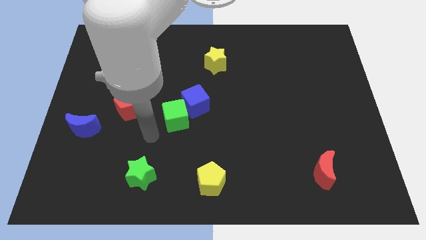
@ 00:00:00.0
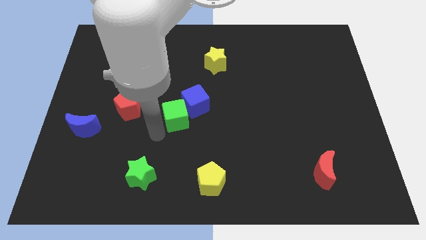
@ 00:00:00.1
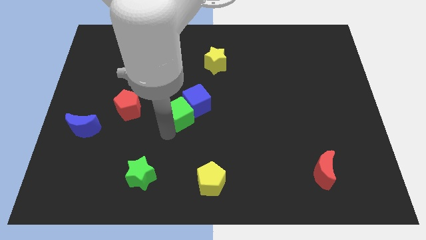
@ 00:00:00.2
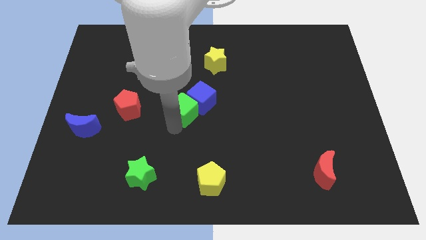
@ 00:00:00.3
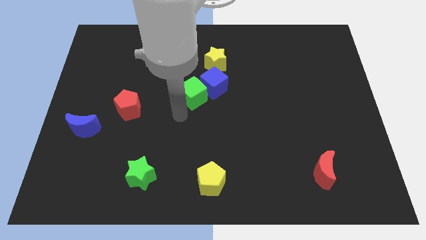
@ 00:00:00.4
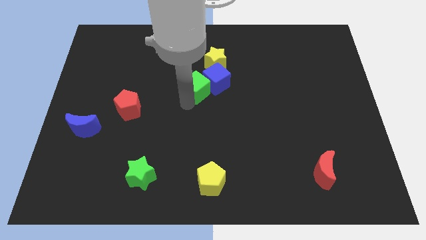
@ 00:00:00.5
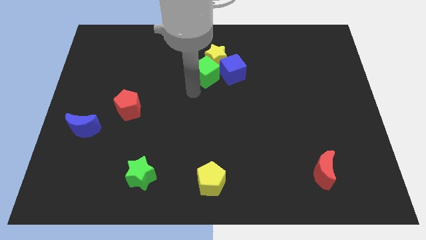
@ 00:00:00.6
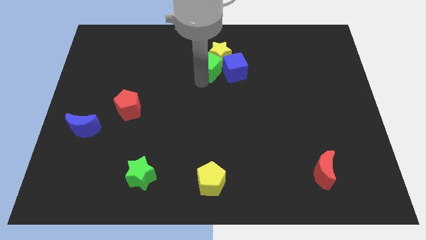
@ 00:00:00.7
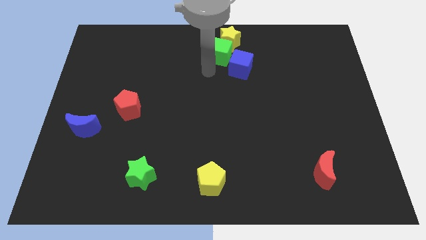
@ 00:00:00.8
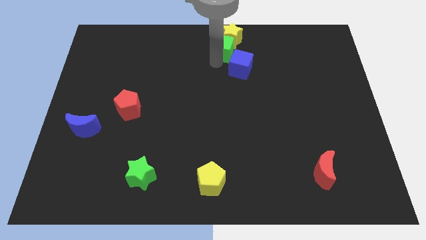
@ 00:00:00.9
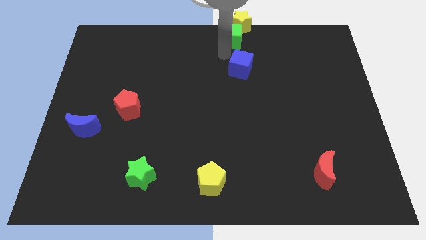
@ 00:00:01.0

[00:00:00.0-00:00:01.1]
separate the blue cube from the green cube

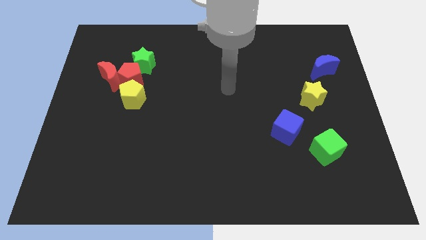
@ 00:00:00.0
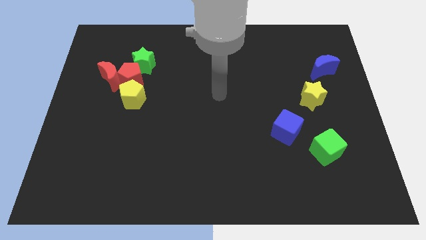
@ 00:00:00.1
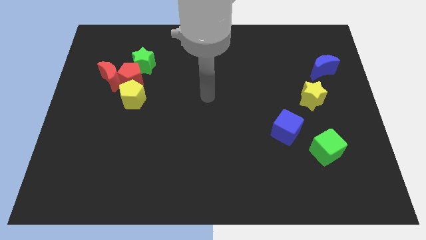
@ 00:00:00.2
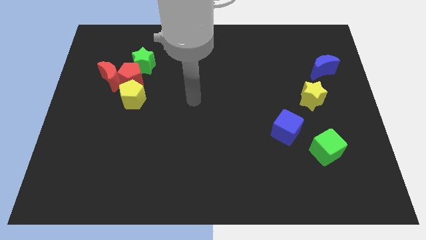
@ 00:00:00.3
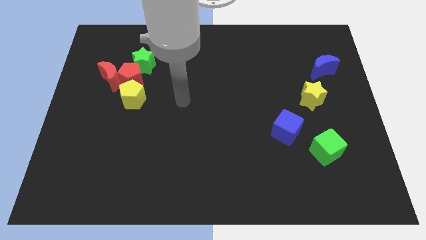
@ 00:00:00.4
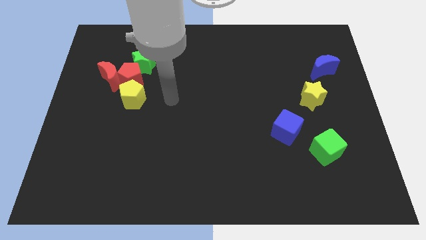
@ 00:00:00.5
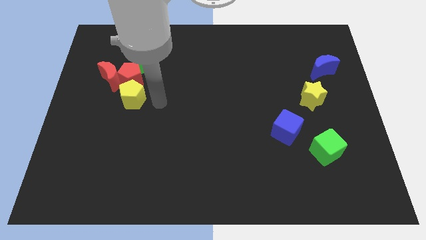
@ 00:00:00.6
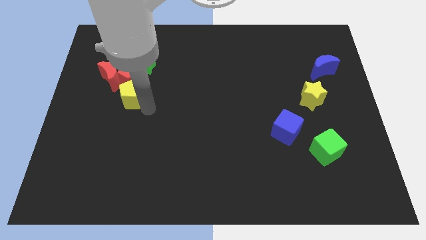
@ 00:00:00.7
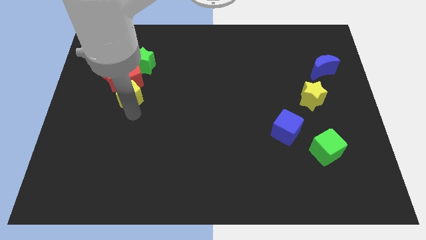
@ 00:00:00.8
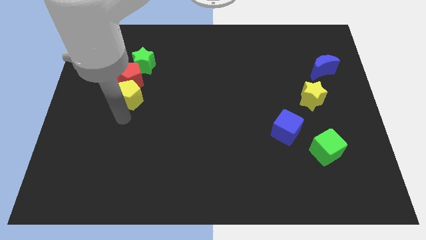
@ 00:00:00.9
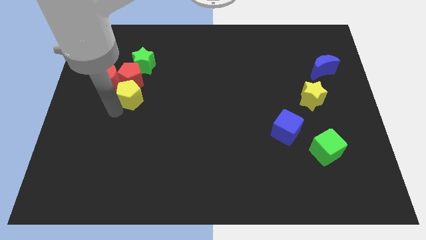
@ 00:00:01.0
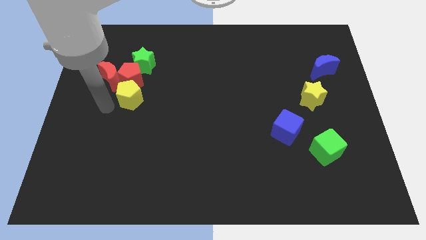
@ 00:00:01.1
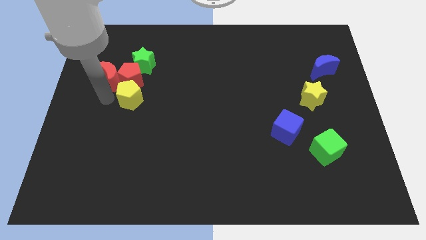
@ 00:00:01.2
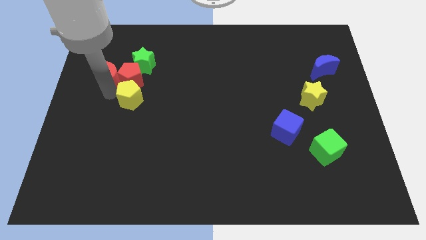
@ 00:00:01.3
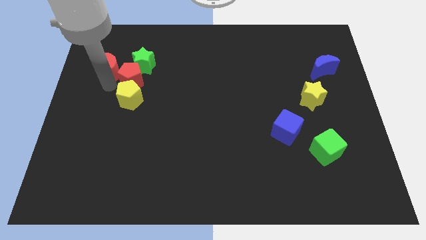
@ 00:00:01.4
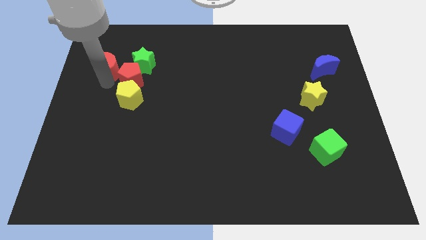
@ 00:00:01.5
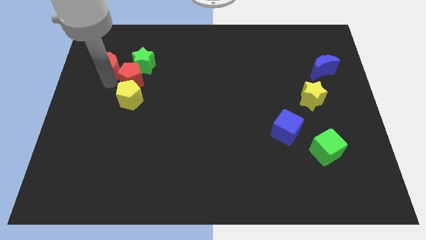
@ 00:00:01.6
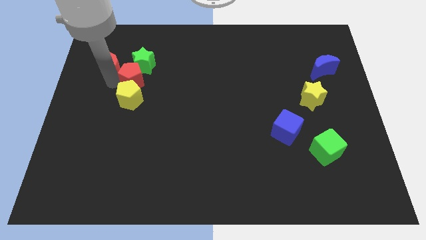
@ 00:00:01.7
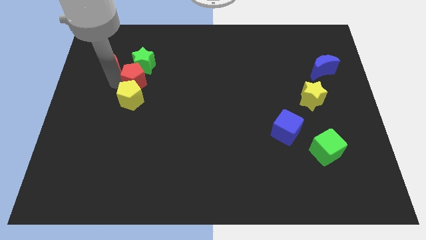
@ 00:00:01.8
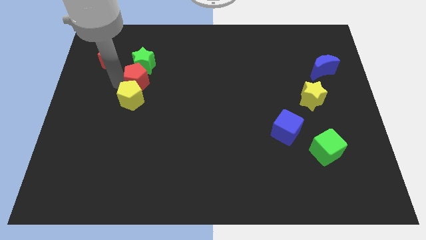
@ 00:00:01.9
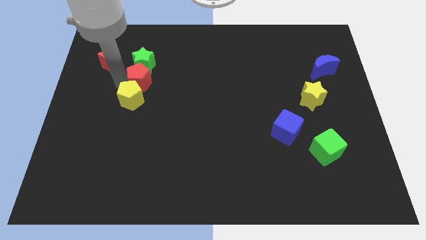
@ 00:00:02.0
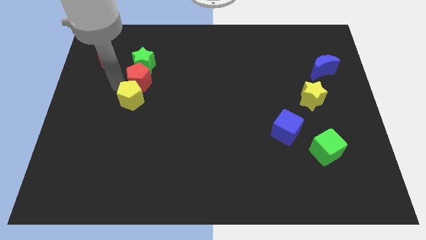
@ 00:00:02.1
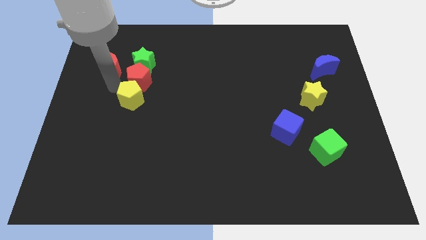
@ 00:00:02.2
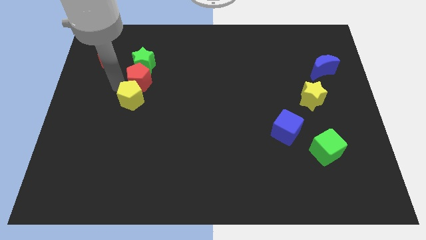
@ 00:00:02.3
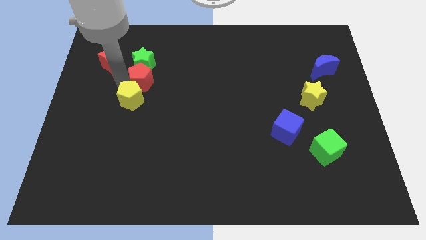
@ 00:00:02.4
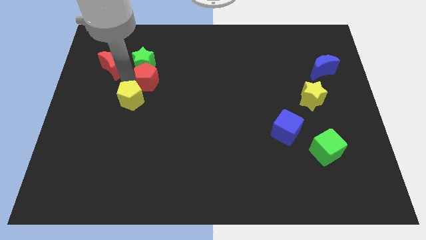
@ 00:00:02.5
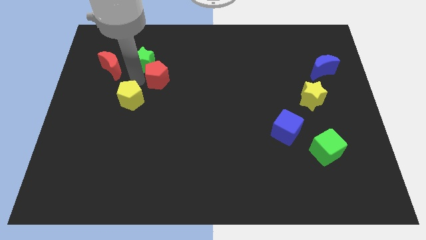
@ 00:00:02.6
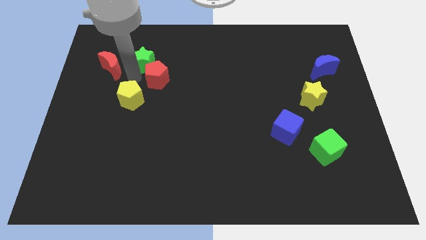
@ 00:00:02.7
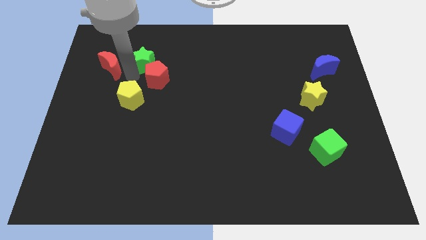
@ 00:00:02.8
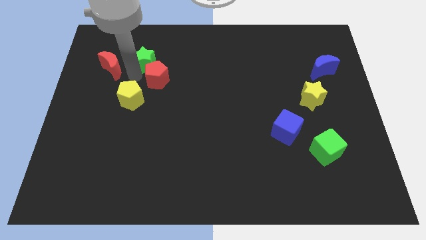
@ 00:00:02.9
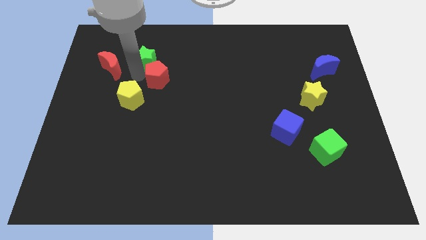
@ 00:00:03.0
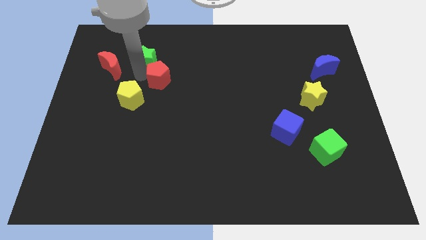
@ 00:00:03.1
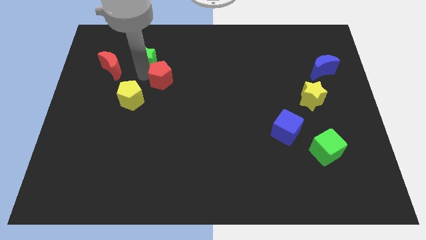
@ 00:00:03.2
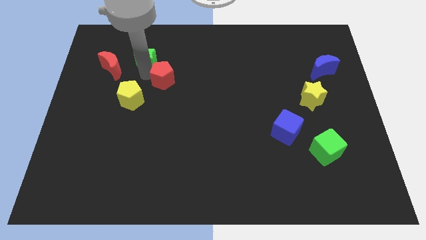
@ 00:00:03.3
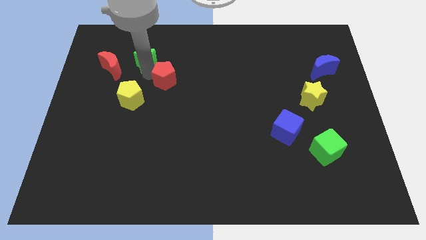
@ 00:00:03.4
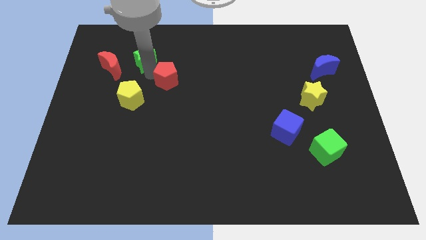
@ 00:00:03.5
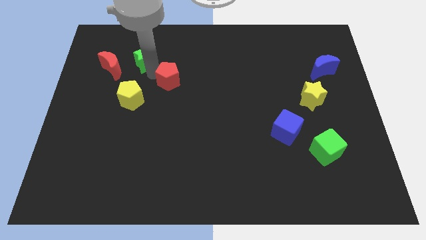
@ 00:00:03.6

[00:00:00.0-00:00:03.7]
separate the red pentagon from the red moon, green star, and yellow pentagon

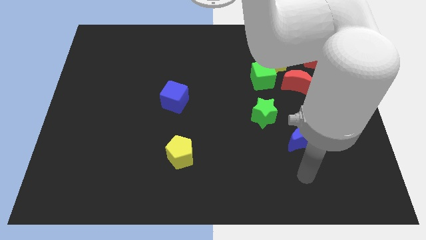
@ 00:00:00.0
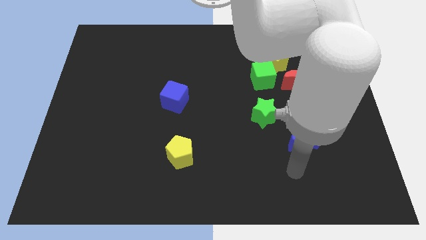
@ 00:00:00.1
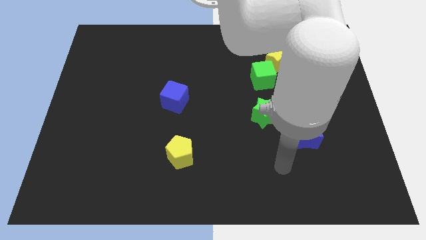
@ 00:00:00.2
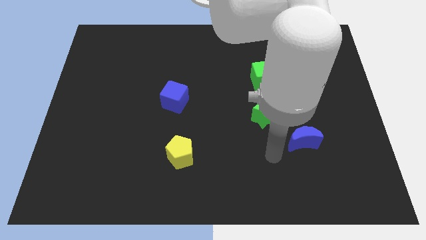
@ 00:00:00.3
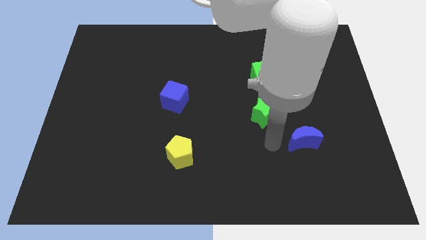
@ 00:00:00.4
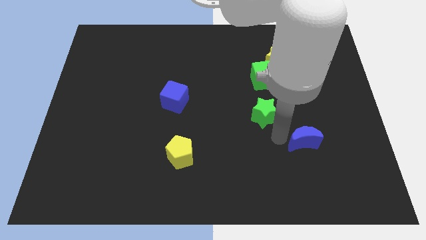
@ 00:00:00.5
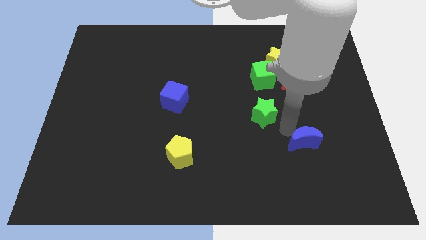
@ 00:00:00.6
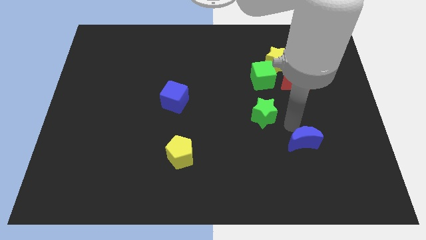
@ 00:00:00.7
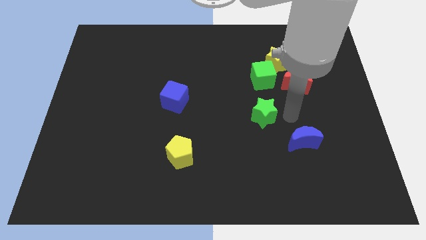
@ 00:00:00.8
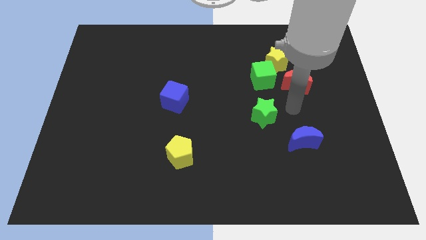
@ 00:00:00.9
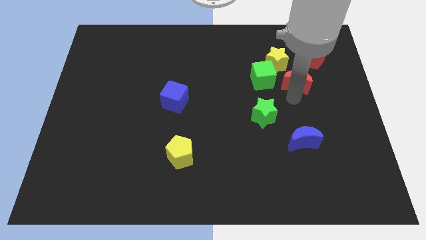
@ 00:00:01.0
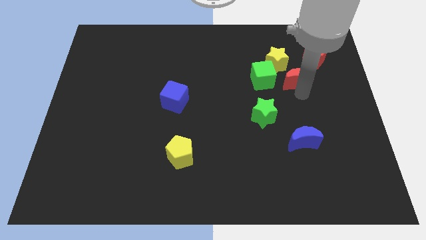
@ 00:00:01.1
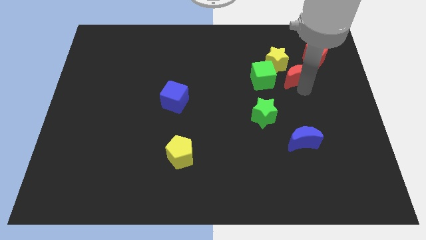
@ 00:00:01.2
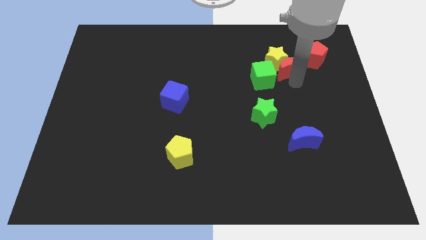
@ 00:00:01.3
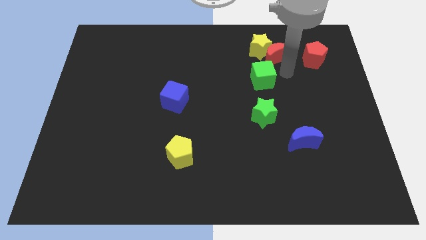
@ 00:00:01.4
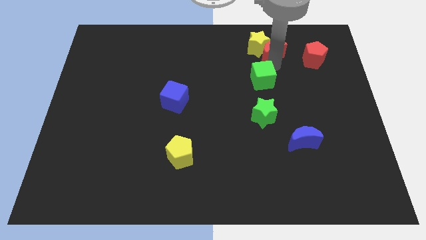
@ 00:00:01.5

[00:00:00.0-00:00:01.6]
separate the green cube from the yellow star and red moon

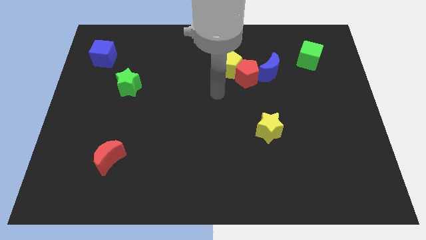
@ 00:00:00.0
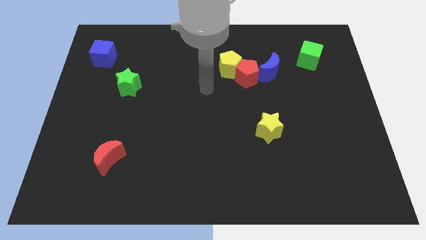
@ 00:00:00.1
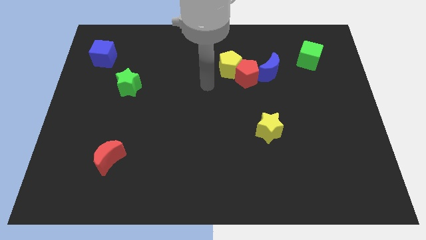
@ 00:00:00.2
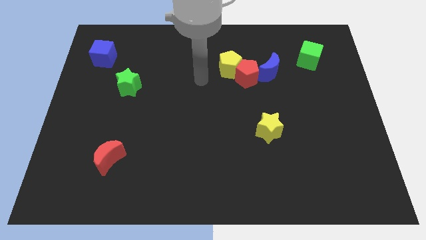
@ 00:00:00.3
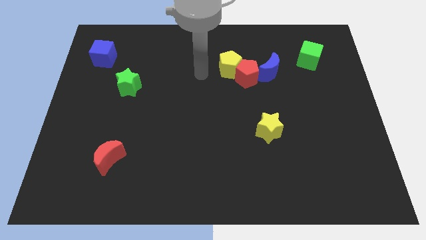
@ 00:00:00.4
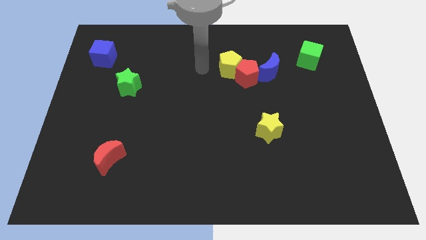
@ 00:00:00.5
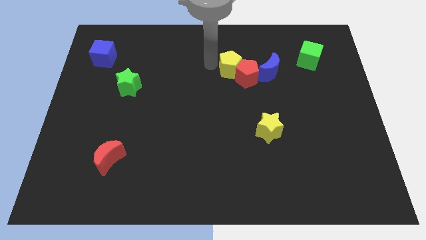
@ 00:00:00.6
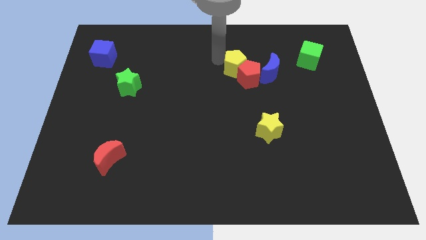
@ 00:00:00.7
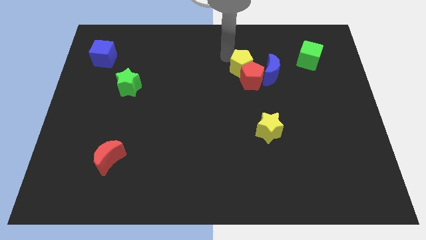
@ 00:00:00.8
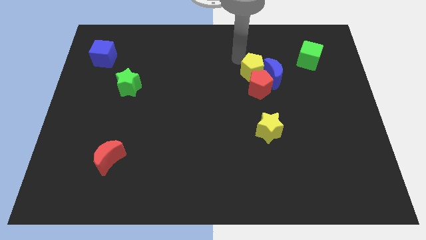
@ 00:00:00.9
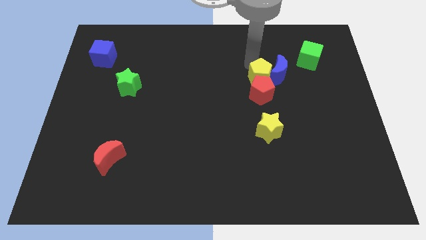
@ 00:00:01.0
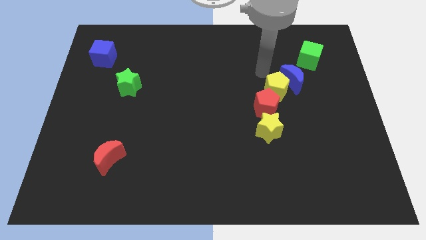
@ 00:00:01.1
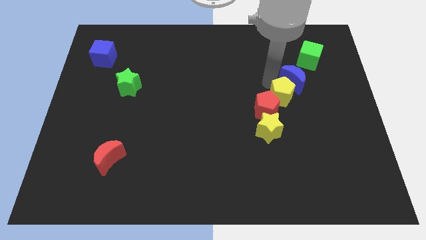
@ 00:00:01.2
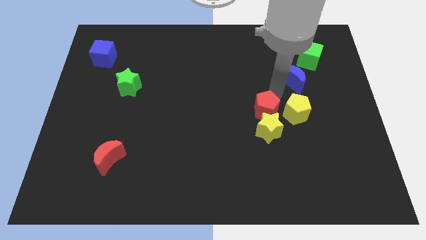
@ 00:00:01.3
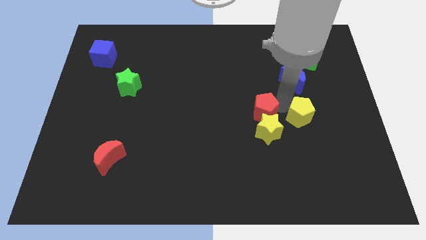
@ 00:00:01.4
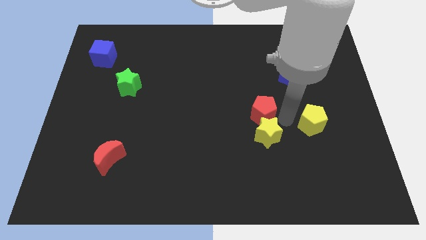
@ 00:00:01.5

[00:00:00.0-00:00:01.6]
separate the red pentagon from the yellow pentagon and blue moon

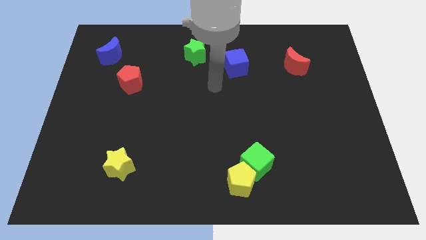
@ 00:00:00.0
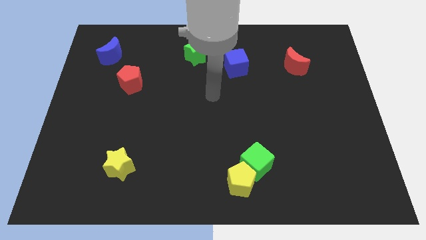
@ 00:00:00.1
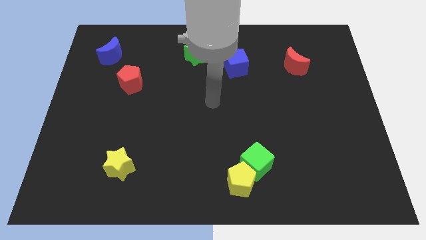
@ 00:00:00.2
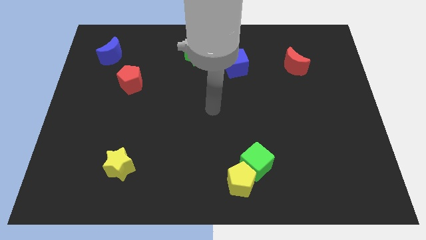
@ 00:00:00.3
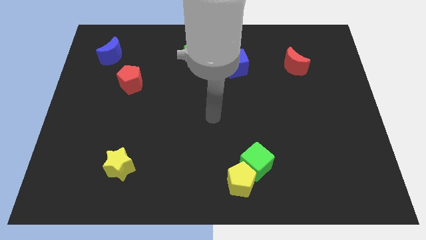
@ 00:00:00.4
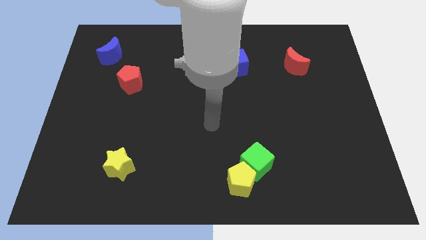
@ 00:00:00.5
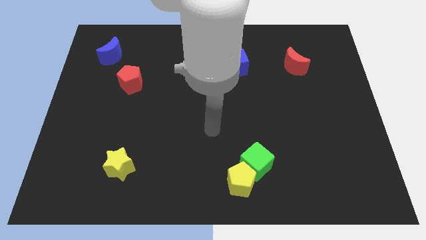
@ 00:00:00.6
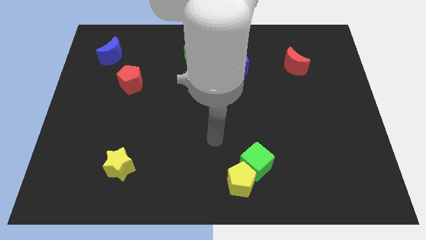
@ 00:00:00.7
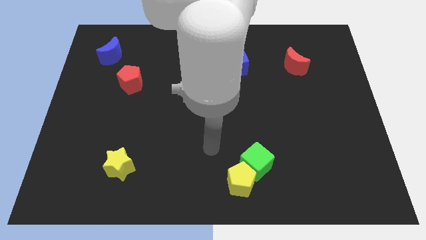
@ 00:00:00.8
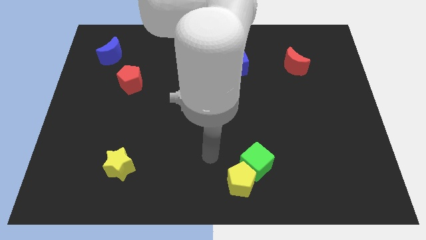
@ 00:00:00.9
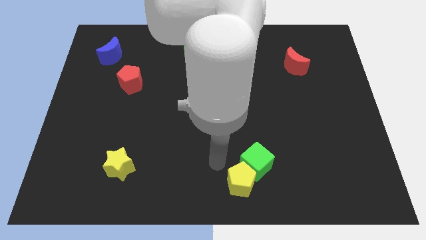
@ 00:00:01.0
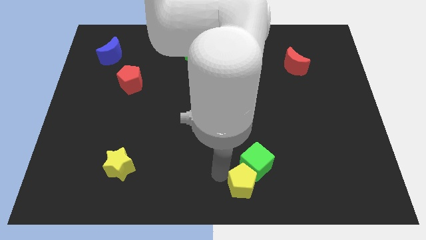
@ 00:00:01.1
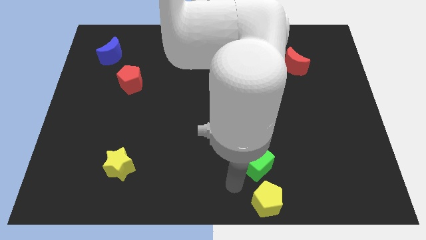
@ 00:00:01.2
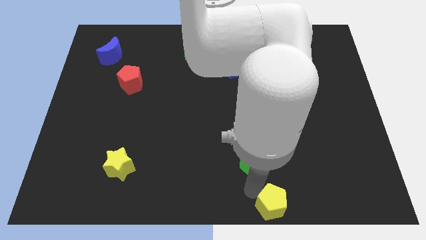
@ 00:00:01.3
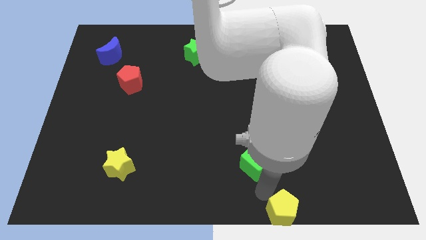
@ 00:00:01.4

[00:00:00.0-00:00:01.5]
separate the green cube from the yellow pentagon
